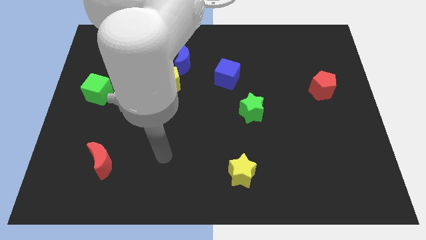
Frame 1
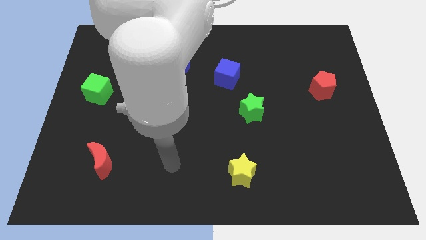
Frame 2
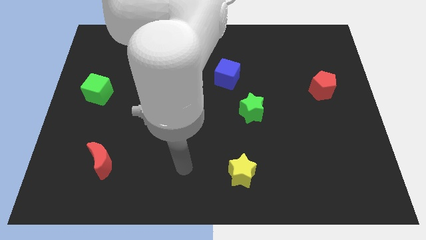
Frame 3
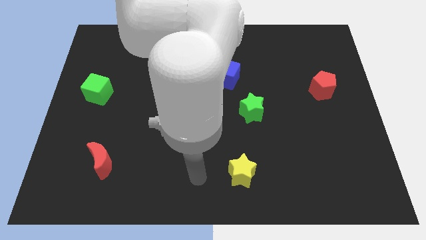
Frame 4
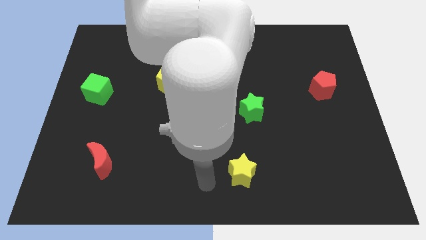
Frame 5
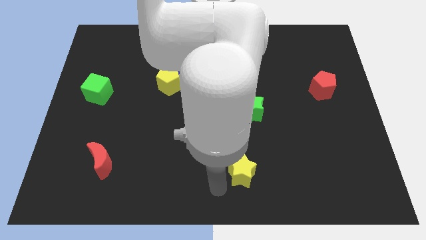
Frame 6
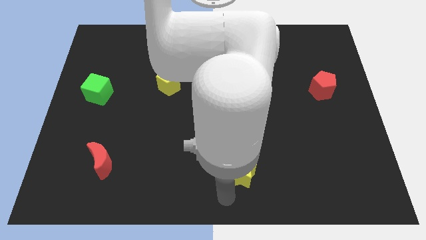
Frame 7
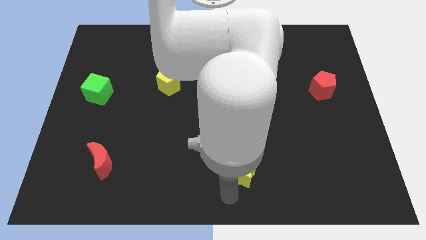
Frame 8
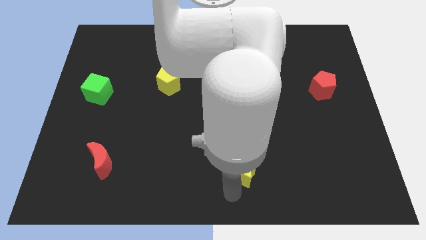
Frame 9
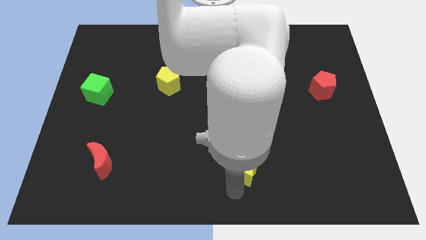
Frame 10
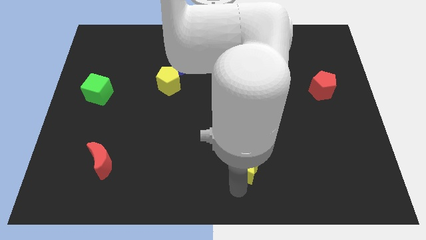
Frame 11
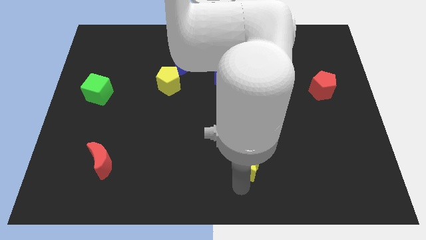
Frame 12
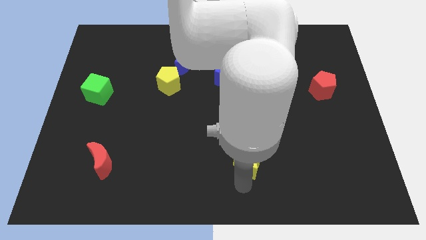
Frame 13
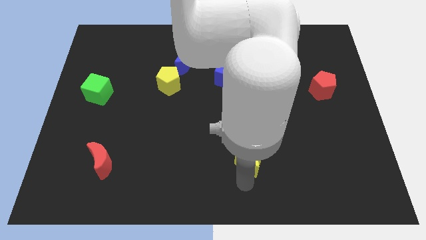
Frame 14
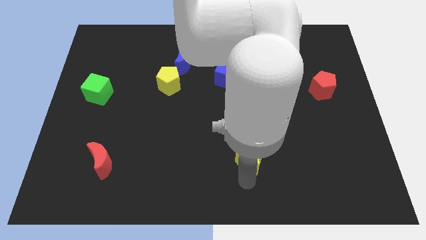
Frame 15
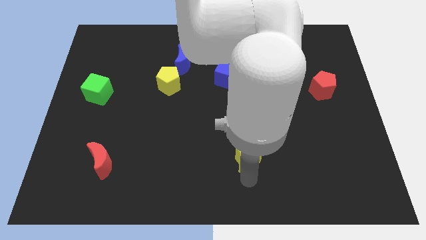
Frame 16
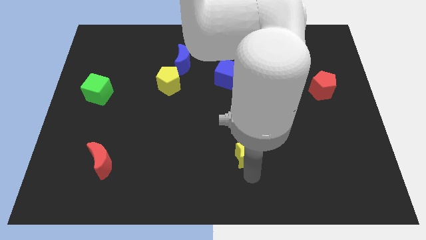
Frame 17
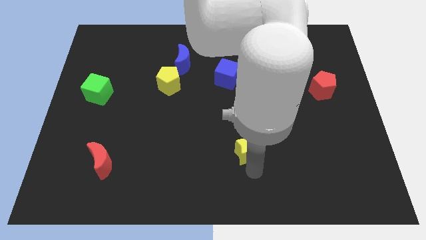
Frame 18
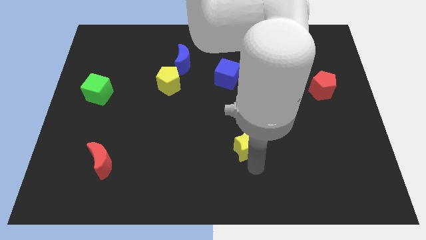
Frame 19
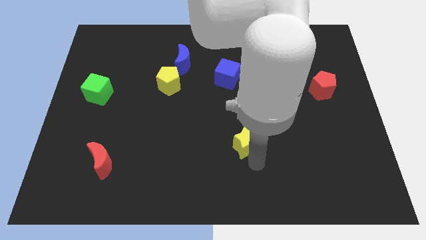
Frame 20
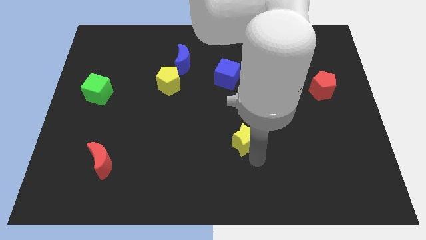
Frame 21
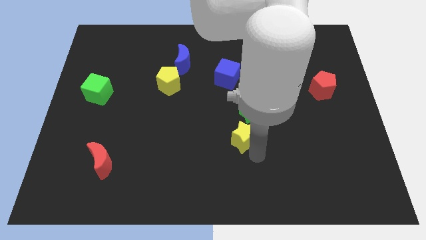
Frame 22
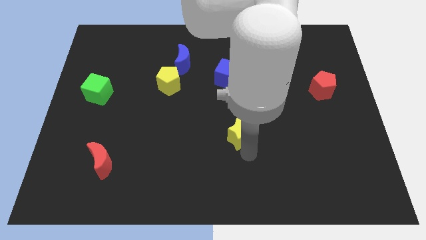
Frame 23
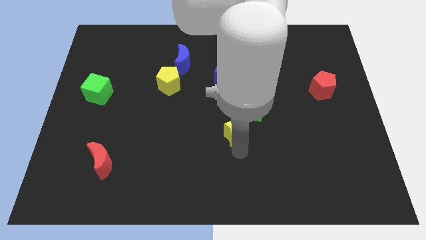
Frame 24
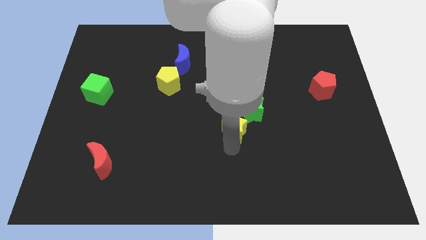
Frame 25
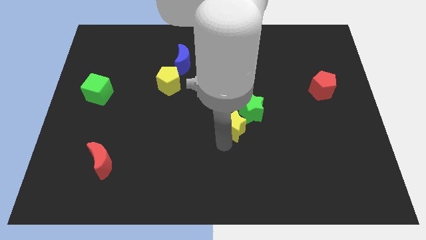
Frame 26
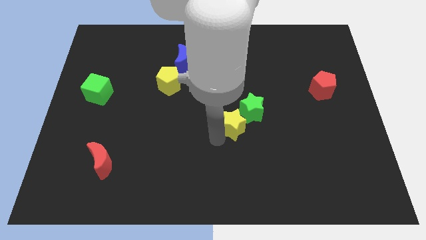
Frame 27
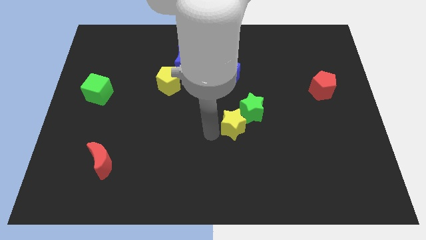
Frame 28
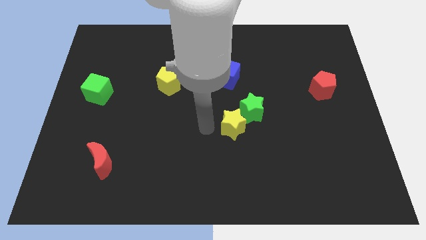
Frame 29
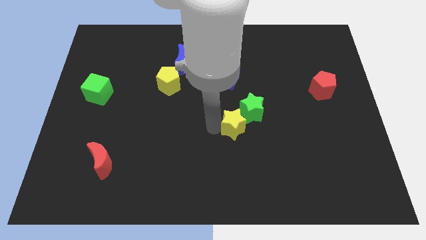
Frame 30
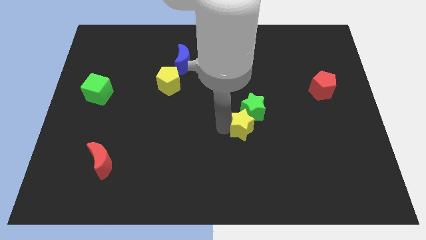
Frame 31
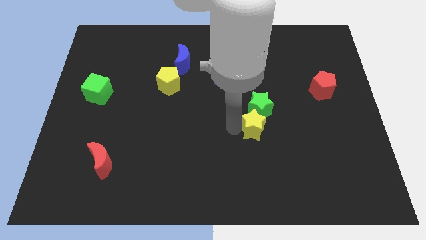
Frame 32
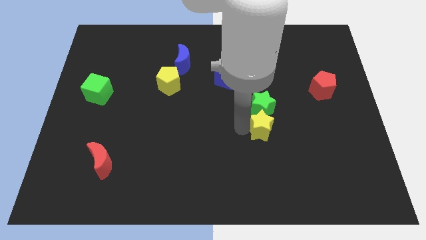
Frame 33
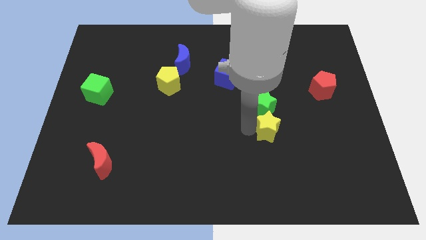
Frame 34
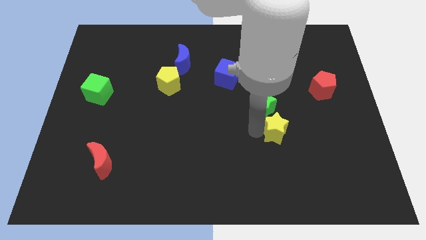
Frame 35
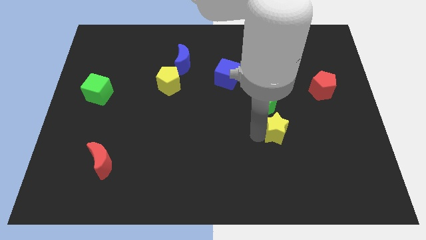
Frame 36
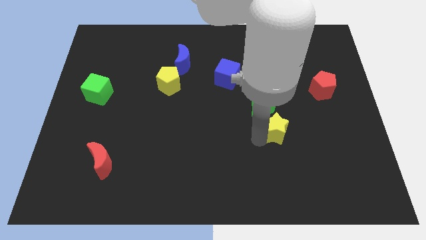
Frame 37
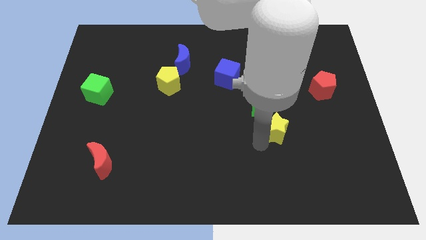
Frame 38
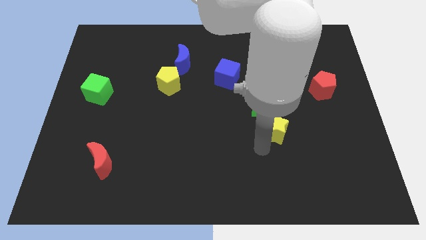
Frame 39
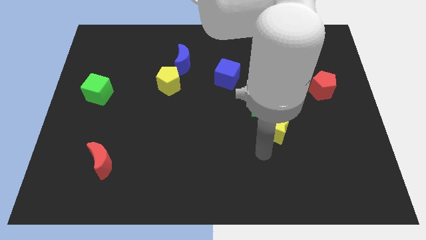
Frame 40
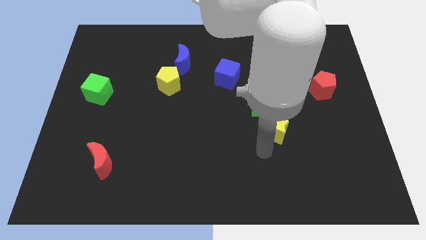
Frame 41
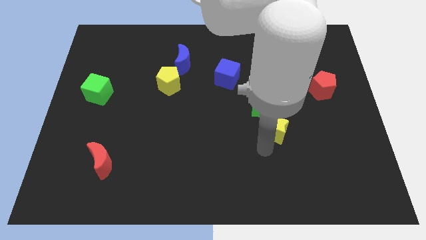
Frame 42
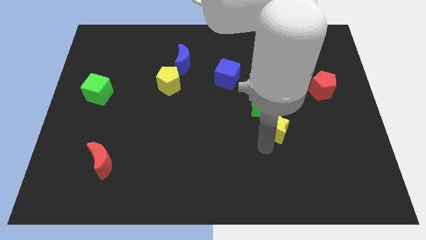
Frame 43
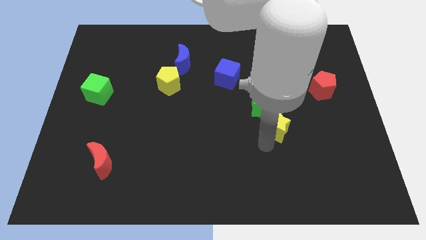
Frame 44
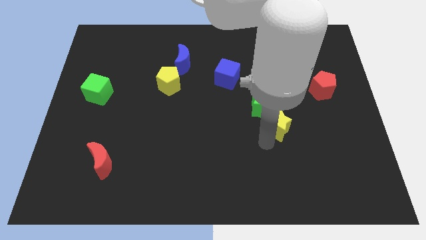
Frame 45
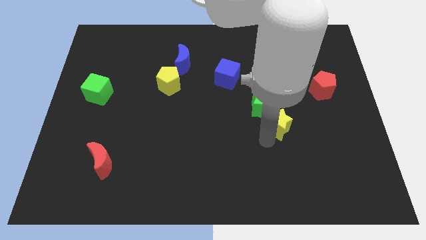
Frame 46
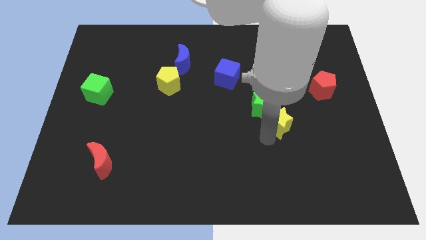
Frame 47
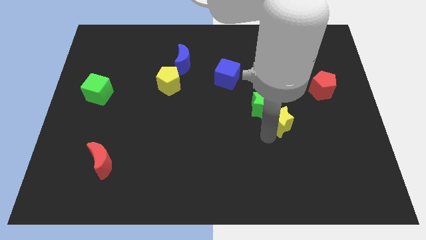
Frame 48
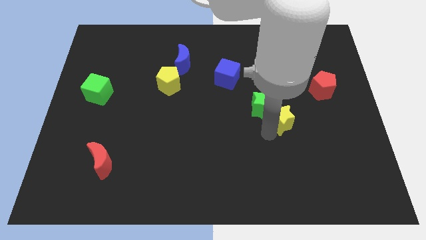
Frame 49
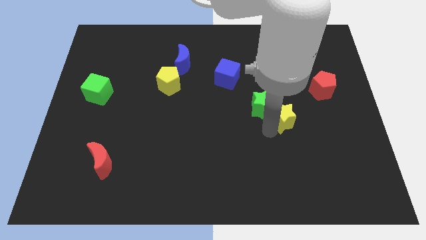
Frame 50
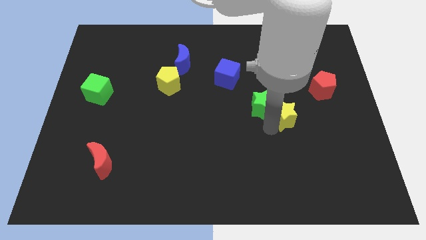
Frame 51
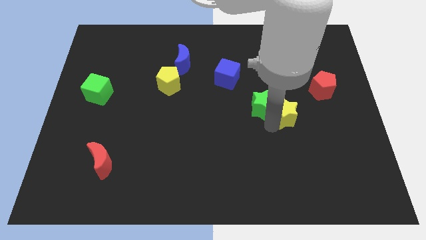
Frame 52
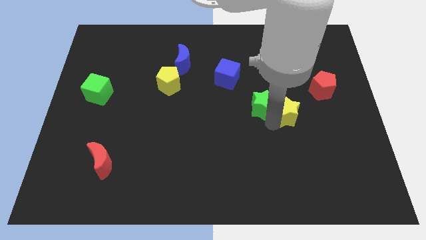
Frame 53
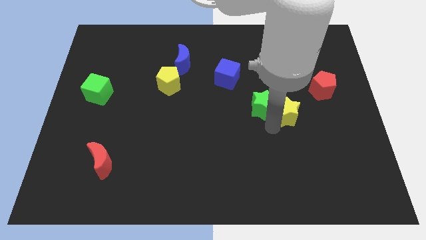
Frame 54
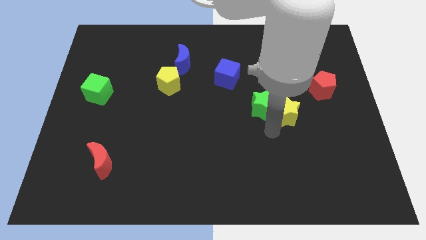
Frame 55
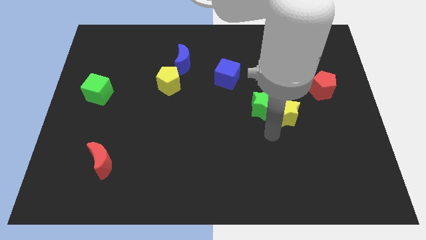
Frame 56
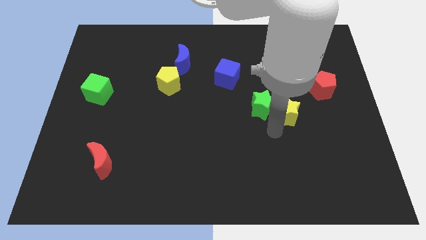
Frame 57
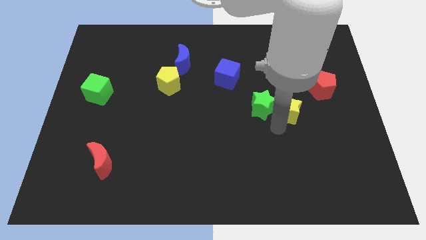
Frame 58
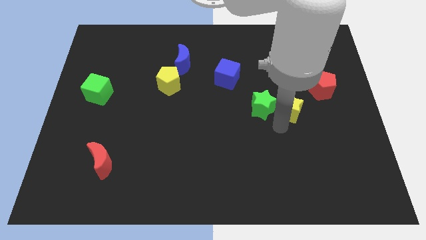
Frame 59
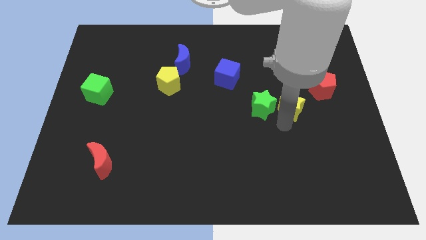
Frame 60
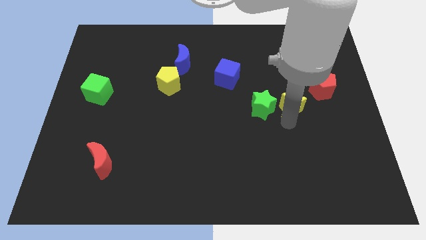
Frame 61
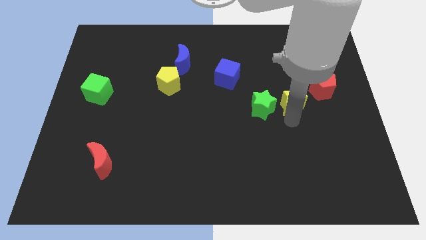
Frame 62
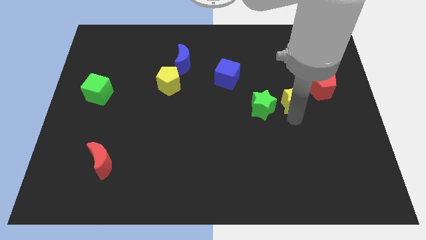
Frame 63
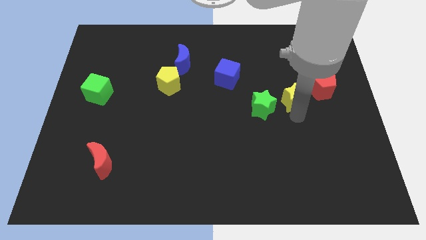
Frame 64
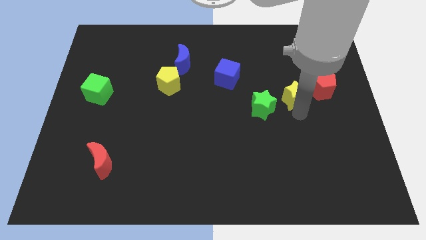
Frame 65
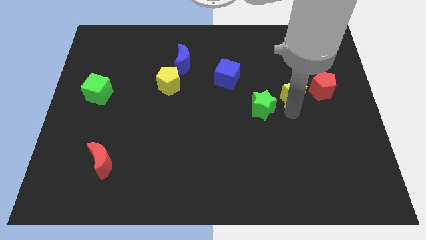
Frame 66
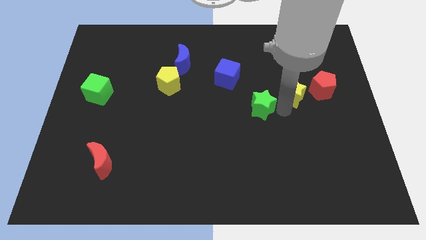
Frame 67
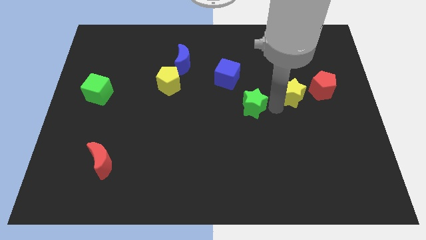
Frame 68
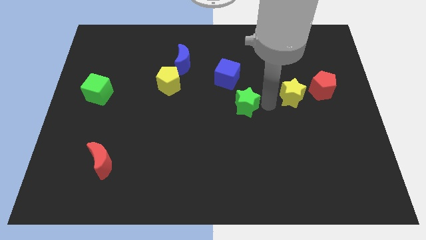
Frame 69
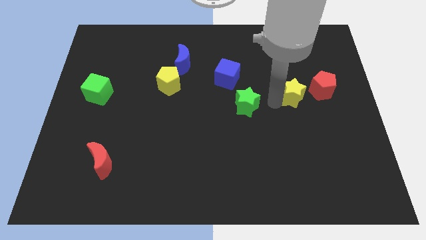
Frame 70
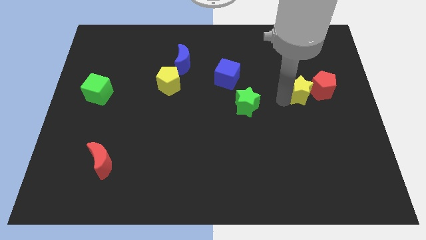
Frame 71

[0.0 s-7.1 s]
put the yellow star towards the red pentagon
